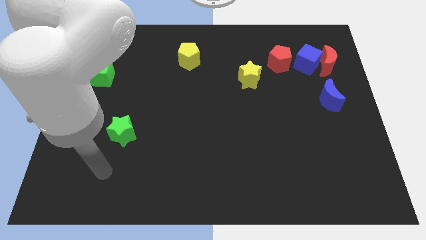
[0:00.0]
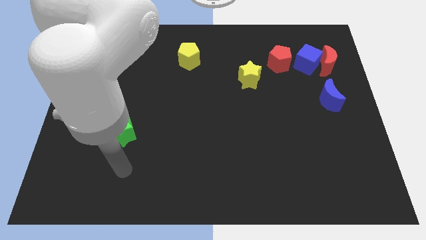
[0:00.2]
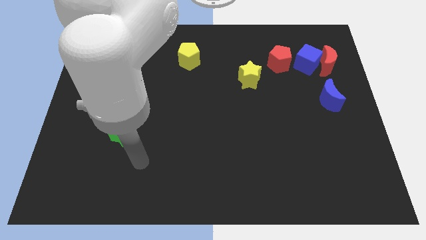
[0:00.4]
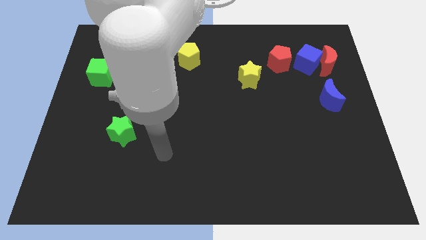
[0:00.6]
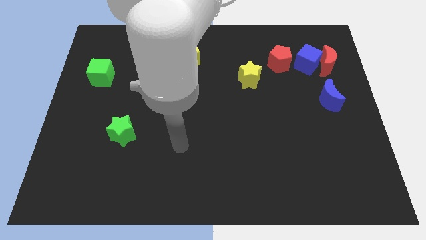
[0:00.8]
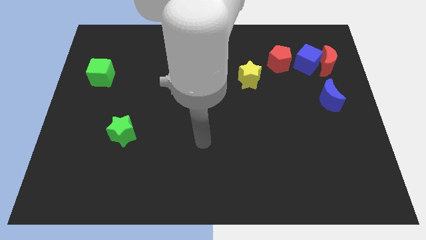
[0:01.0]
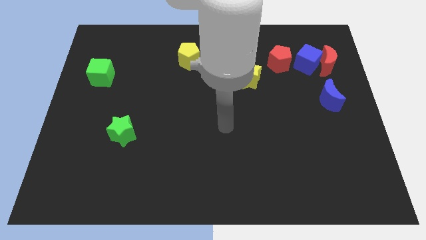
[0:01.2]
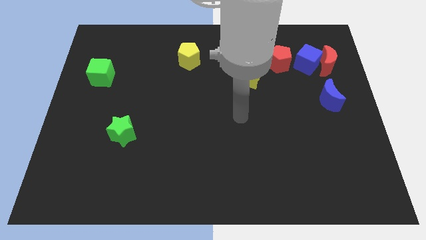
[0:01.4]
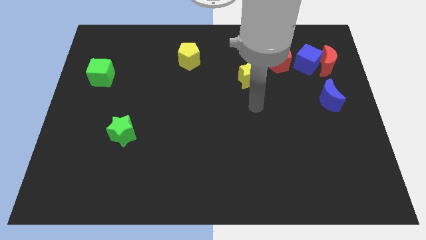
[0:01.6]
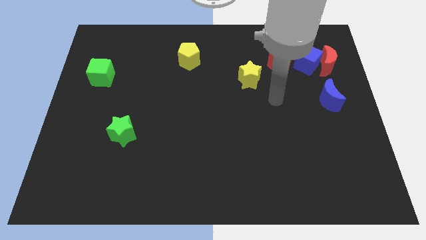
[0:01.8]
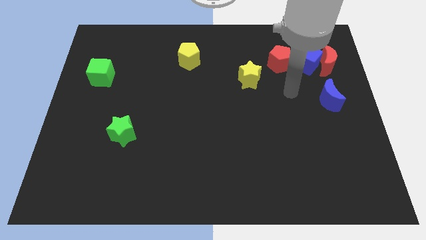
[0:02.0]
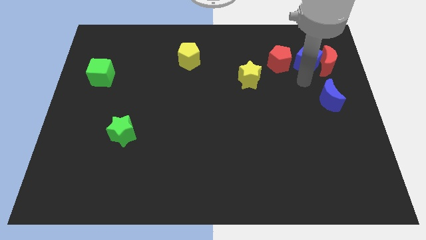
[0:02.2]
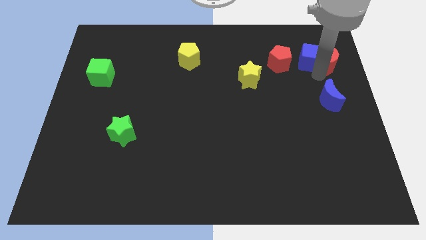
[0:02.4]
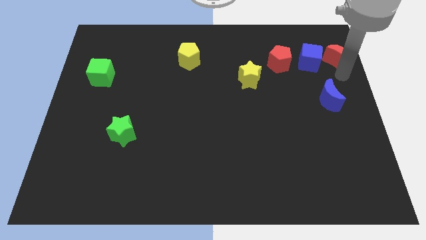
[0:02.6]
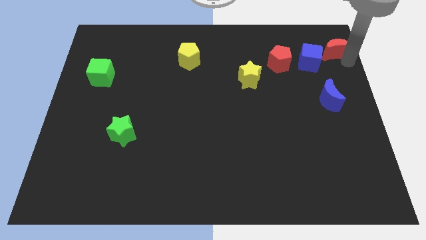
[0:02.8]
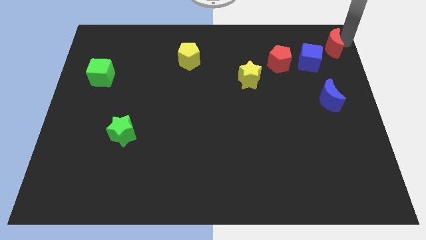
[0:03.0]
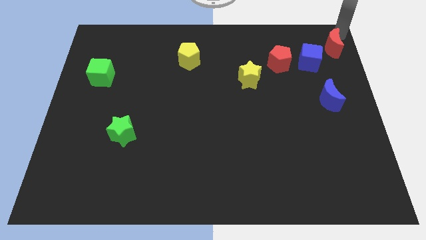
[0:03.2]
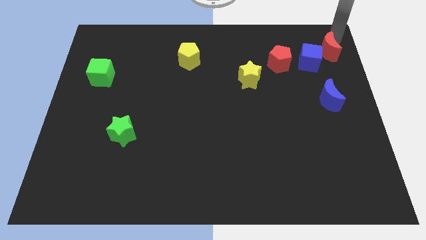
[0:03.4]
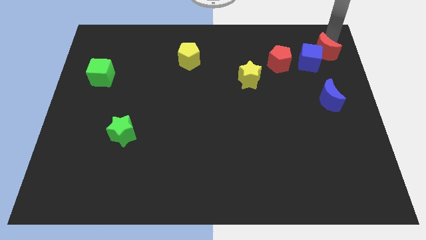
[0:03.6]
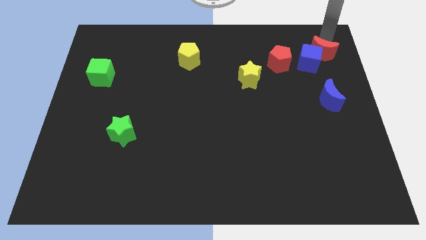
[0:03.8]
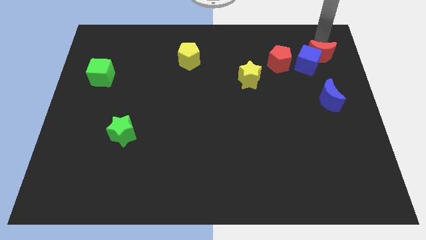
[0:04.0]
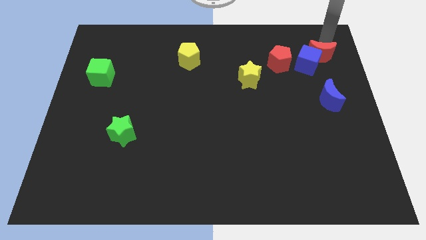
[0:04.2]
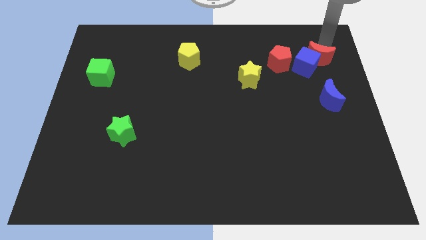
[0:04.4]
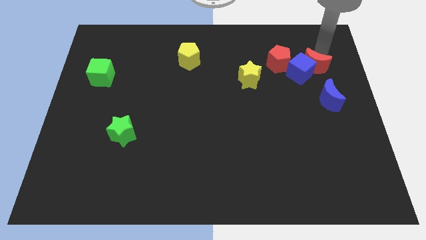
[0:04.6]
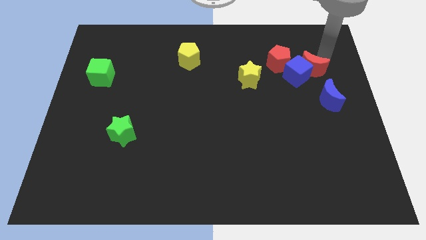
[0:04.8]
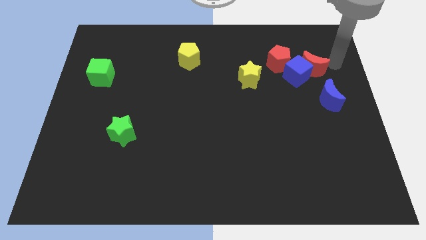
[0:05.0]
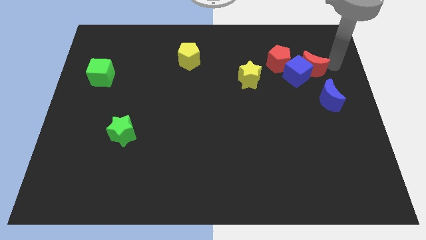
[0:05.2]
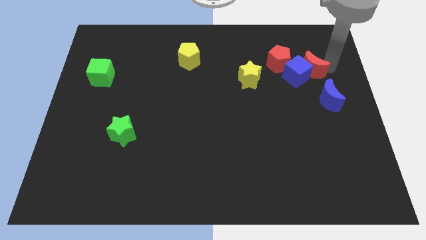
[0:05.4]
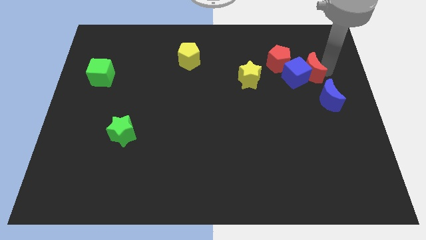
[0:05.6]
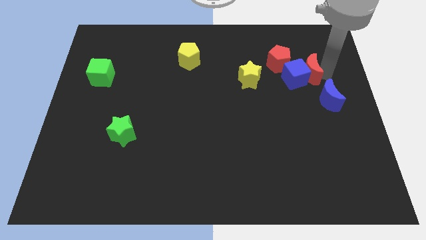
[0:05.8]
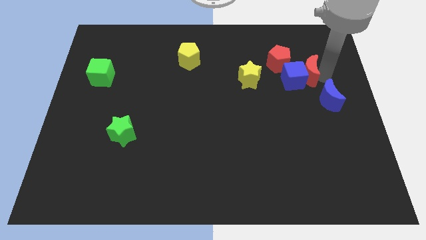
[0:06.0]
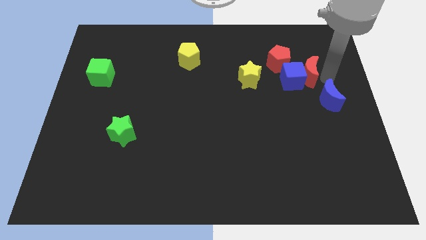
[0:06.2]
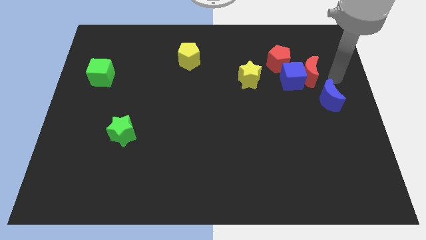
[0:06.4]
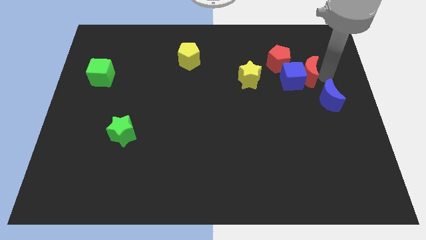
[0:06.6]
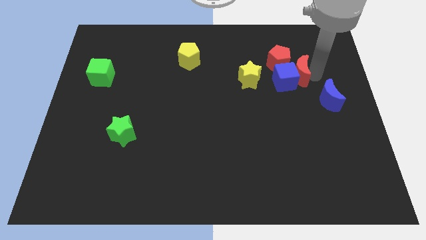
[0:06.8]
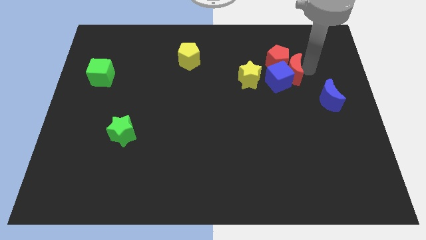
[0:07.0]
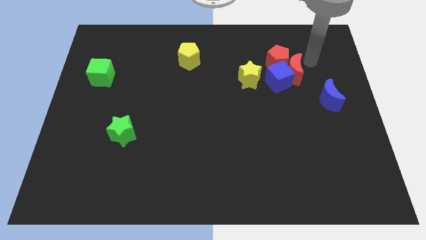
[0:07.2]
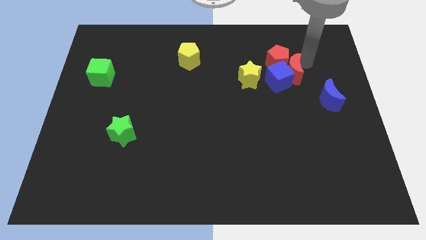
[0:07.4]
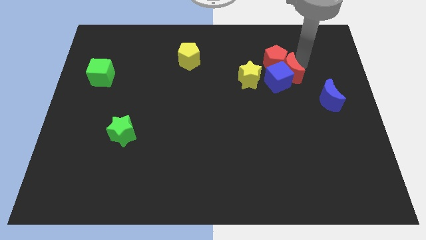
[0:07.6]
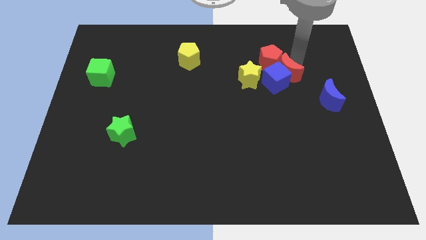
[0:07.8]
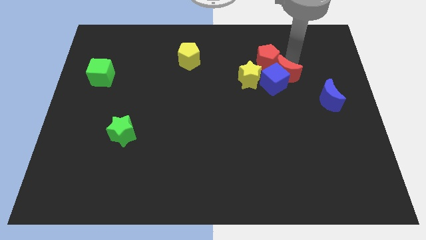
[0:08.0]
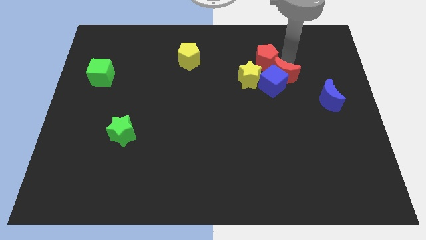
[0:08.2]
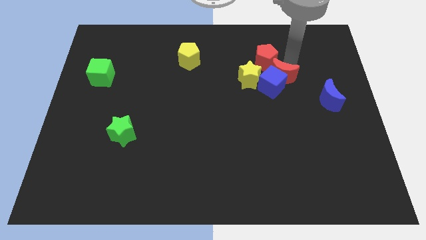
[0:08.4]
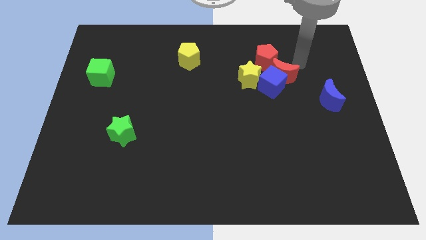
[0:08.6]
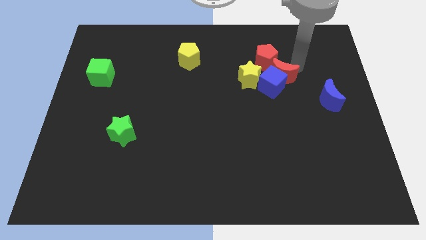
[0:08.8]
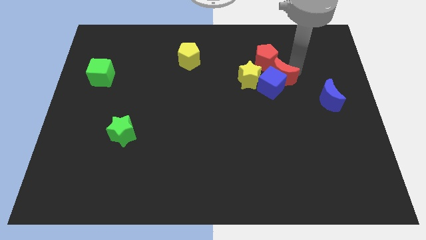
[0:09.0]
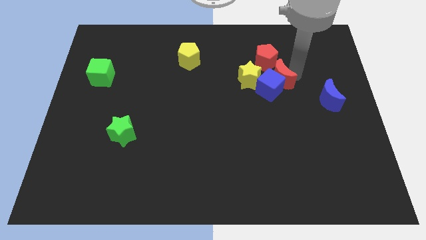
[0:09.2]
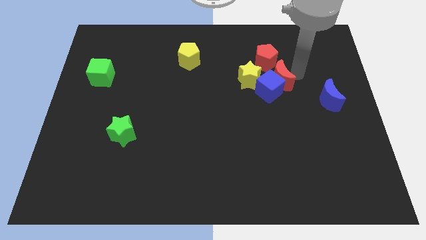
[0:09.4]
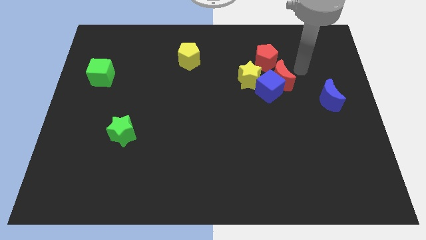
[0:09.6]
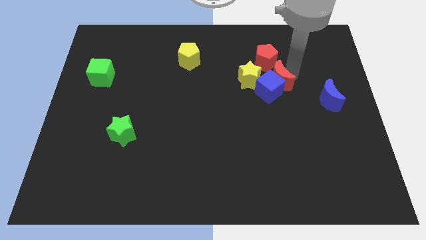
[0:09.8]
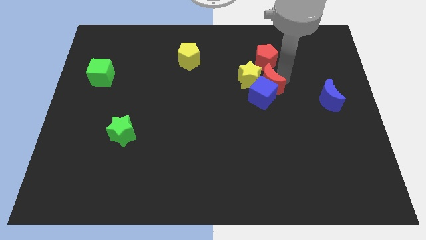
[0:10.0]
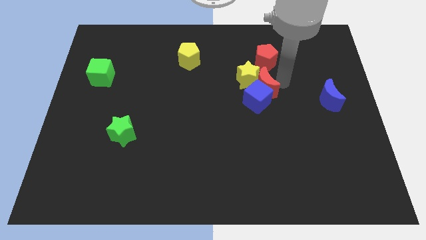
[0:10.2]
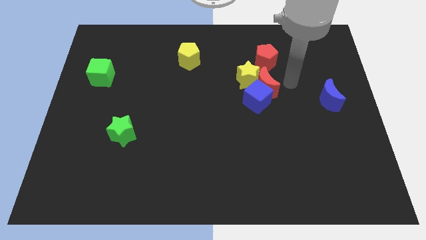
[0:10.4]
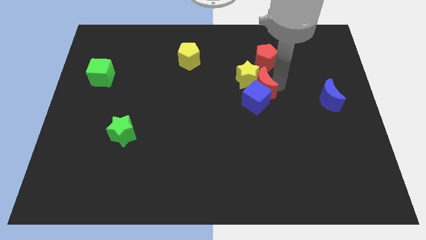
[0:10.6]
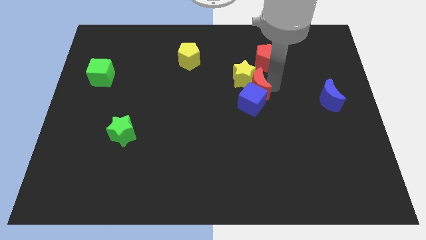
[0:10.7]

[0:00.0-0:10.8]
push the red moon to the center

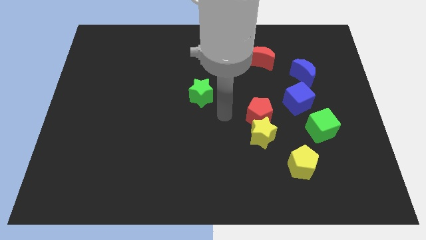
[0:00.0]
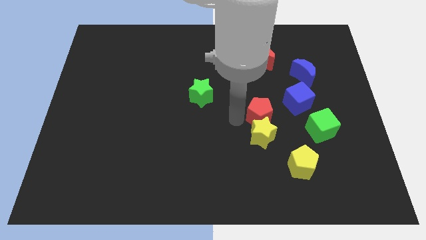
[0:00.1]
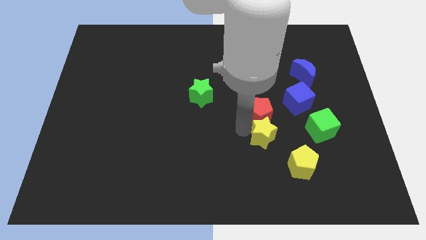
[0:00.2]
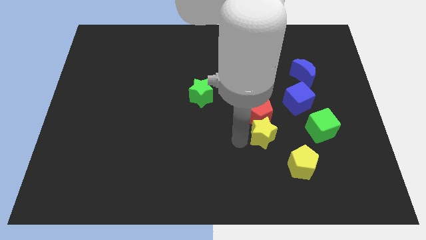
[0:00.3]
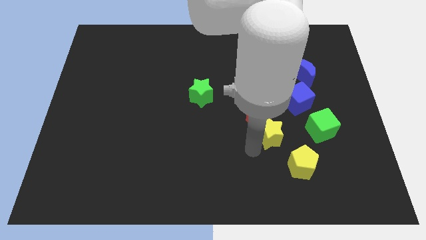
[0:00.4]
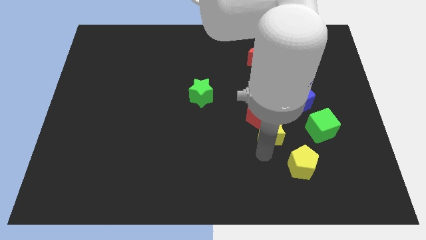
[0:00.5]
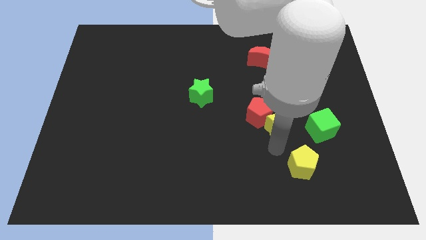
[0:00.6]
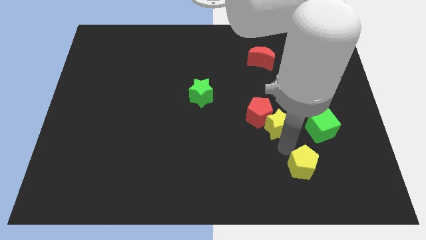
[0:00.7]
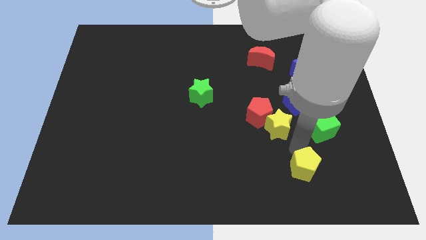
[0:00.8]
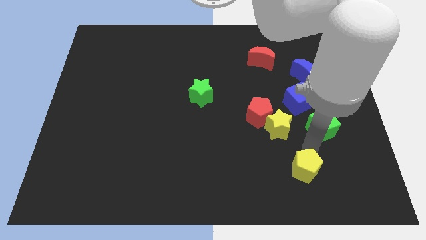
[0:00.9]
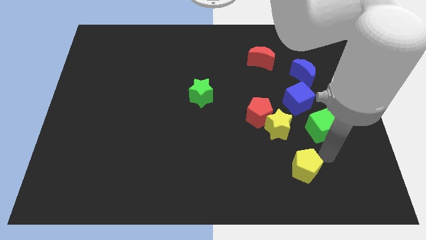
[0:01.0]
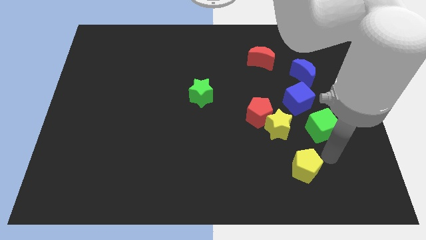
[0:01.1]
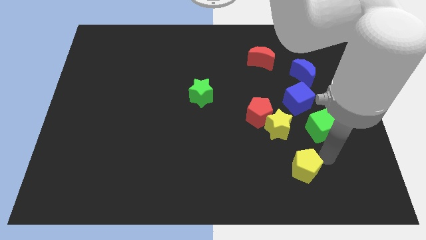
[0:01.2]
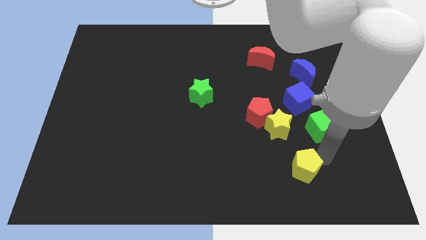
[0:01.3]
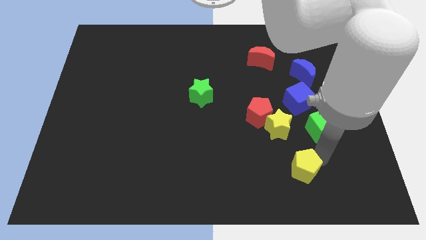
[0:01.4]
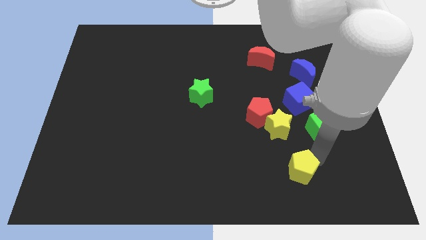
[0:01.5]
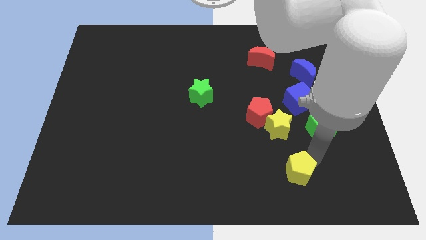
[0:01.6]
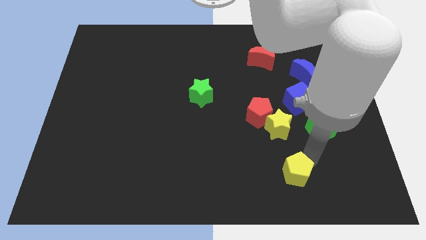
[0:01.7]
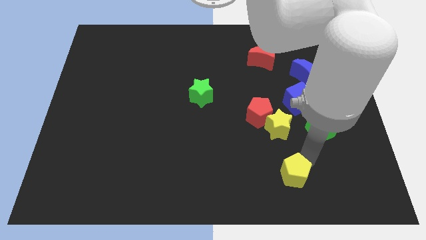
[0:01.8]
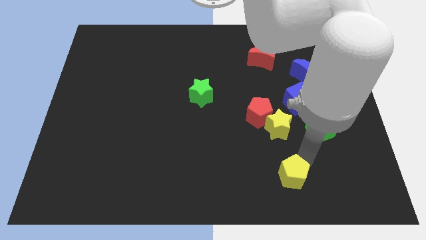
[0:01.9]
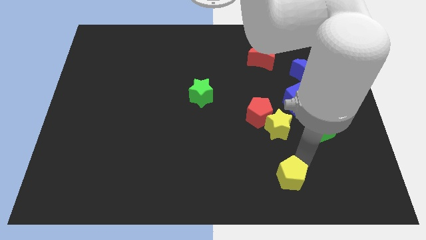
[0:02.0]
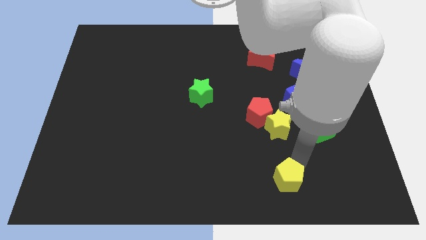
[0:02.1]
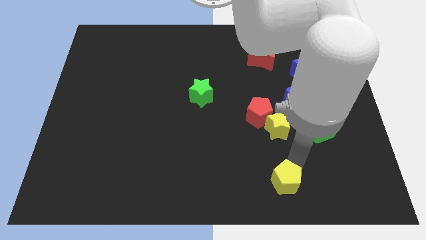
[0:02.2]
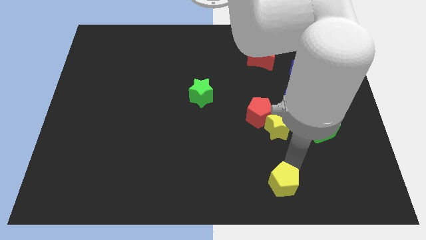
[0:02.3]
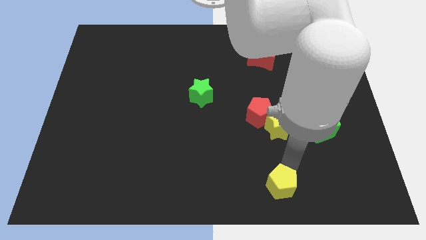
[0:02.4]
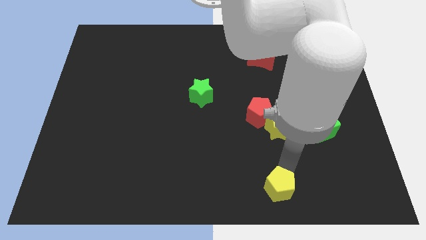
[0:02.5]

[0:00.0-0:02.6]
push the yellow pentagon to the bottom side
